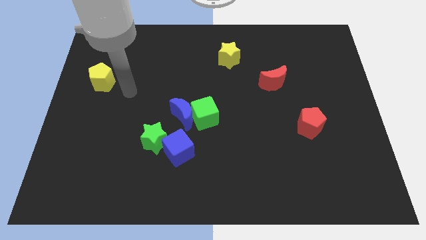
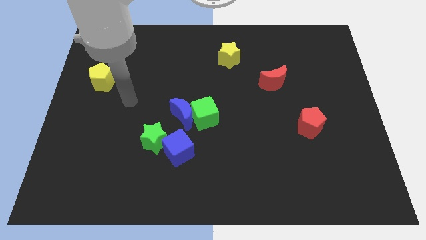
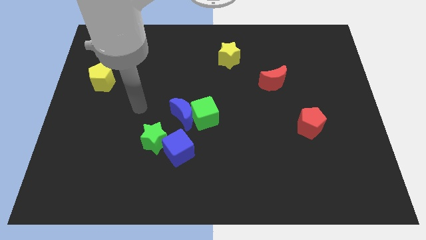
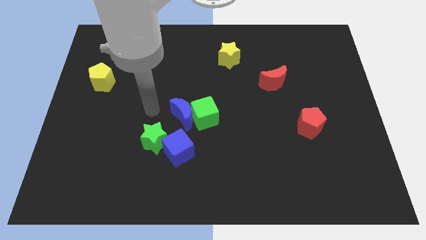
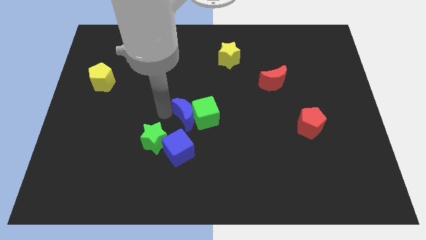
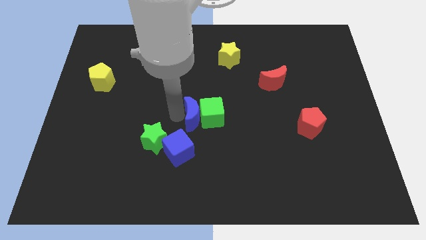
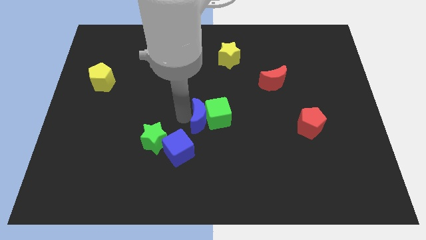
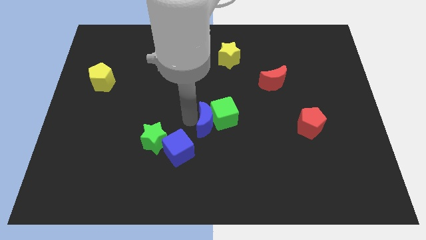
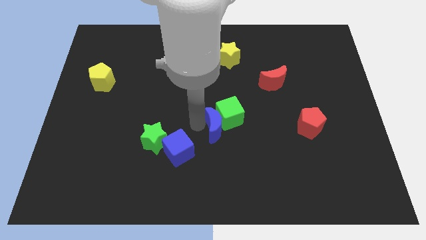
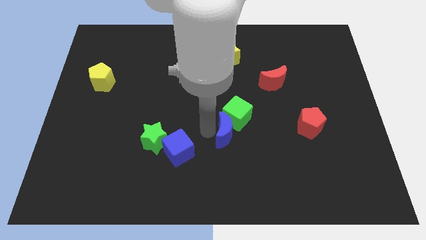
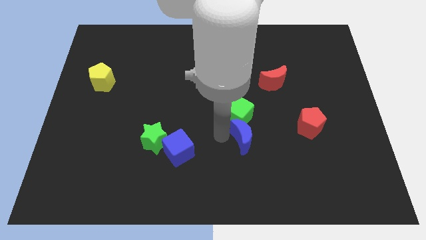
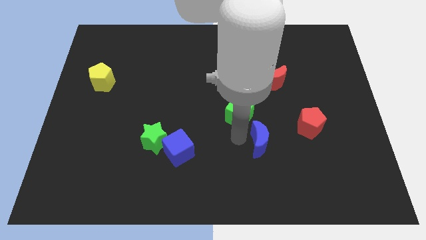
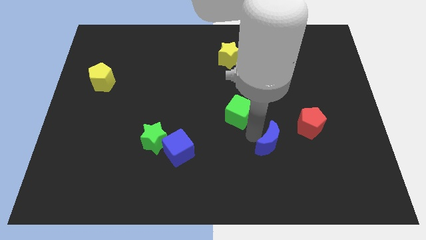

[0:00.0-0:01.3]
separate the green cube from the blue moon

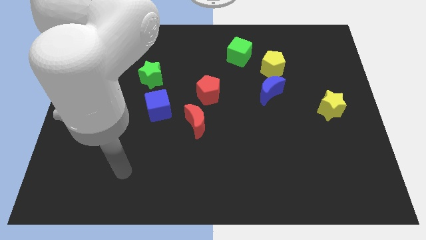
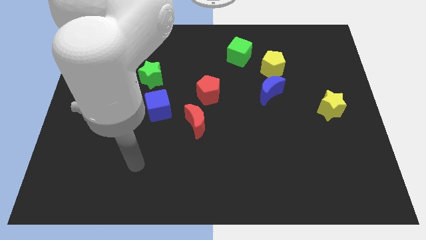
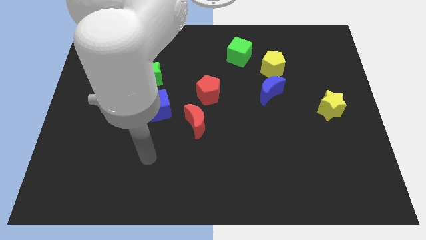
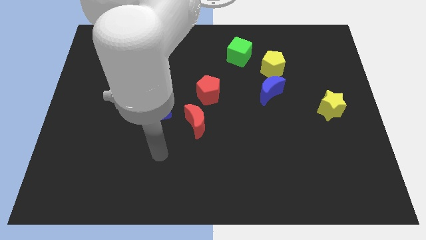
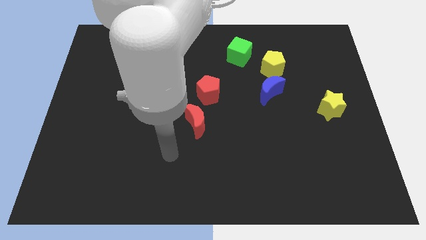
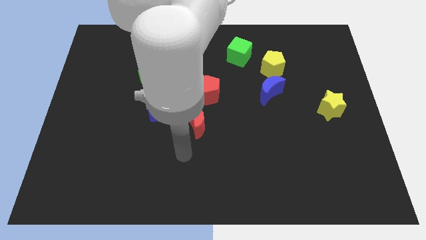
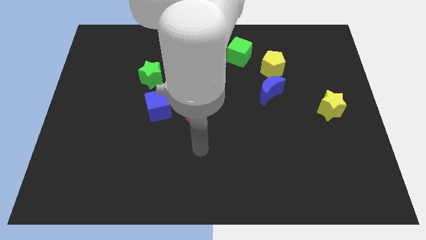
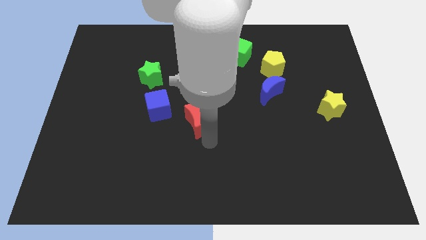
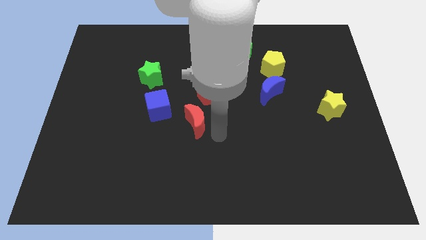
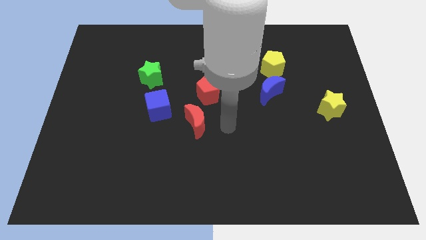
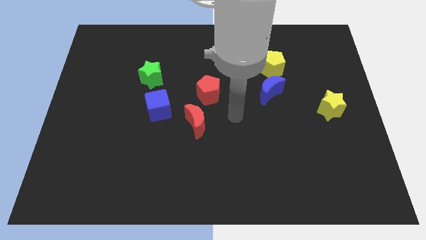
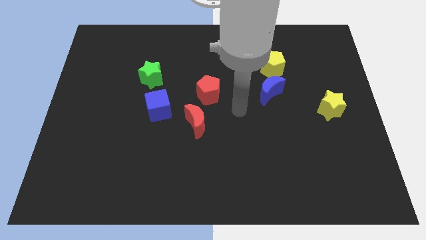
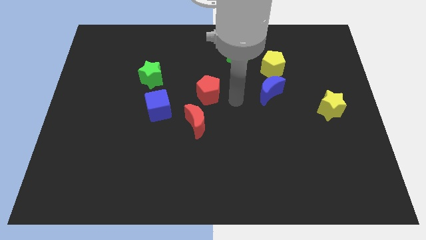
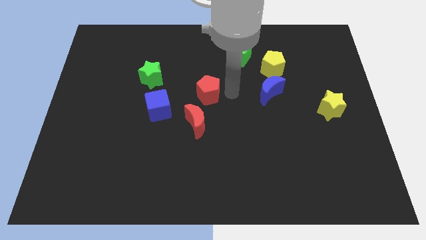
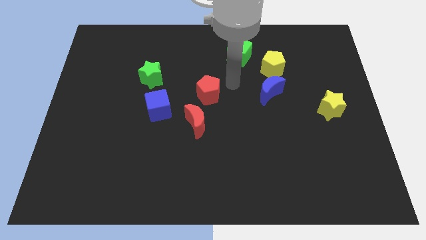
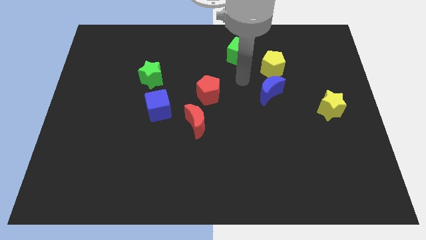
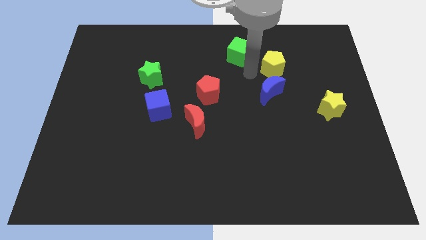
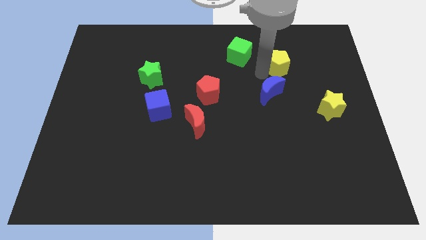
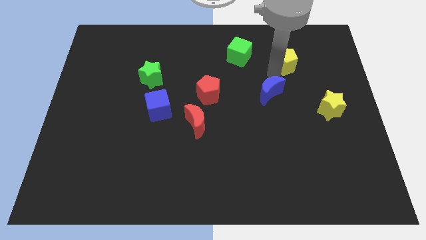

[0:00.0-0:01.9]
separate the blue moon from the yellow pentagon

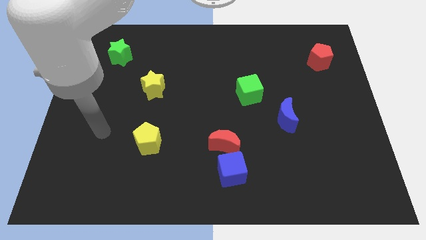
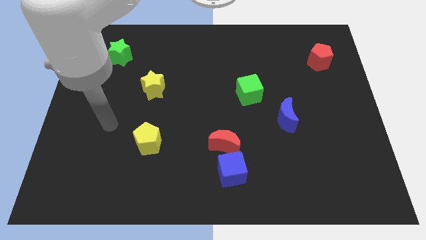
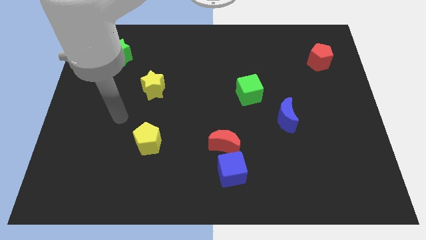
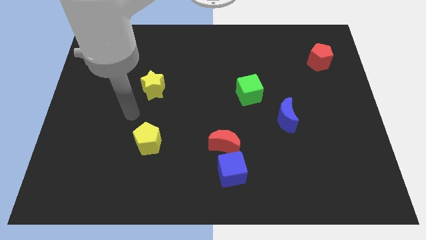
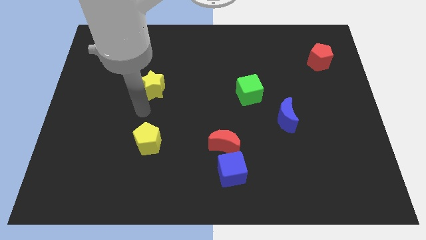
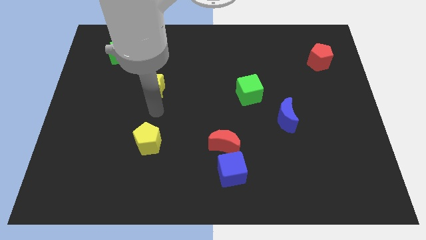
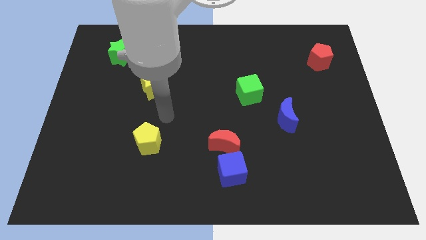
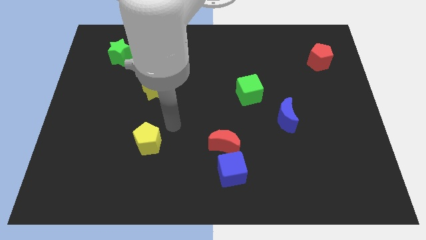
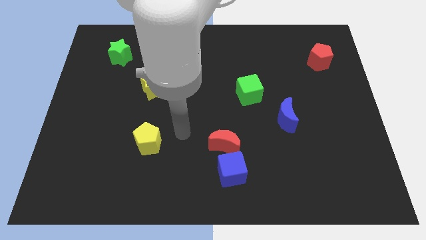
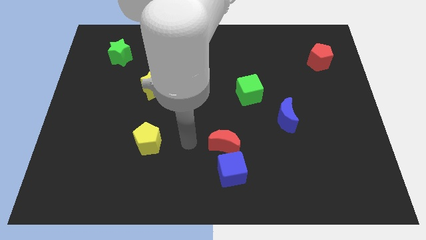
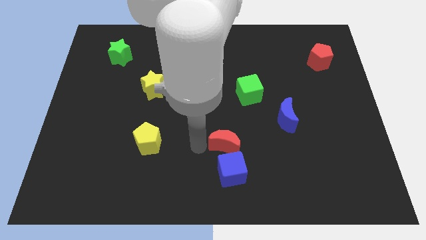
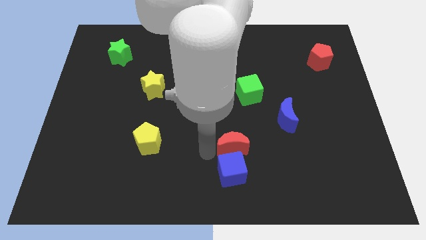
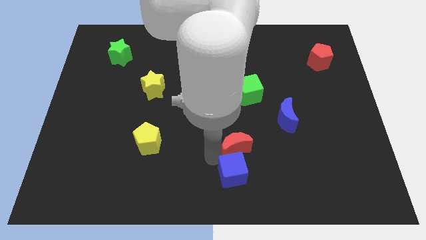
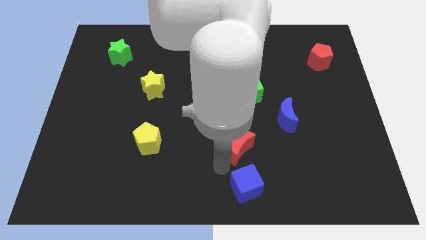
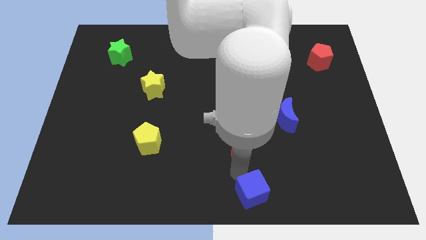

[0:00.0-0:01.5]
move the red moon away from the blue cube

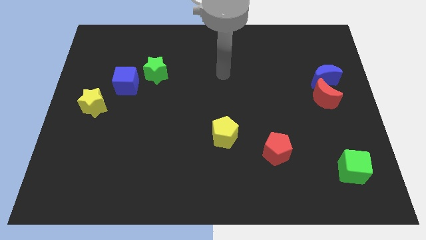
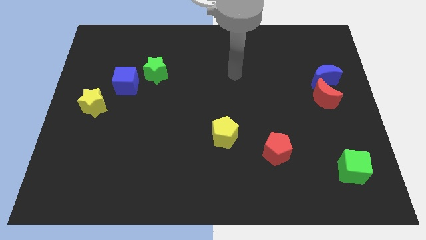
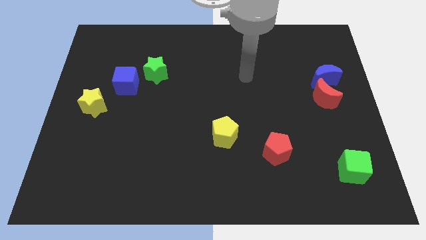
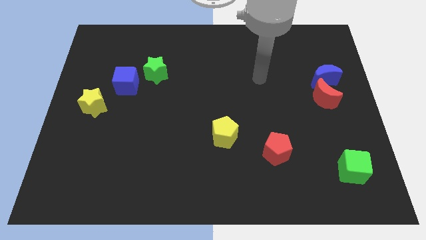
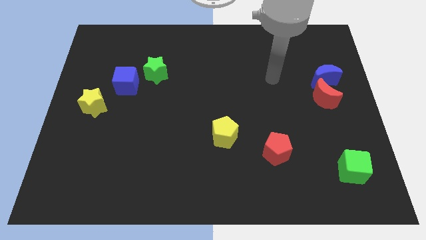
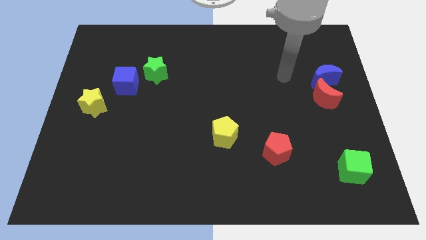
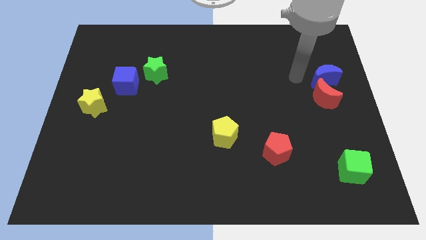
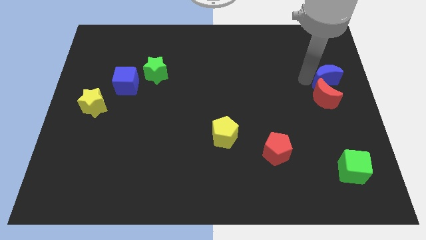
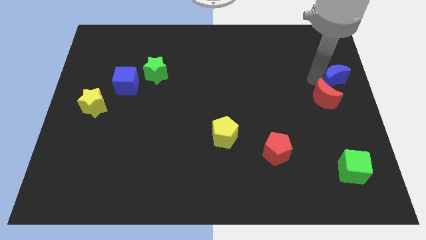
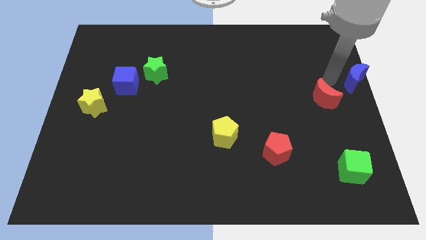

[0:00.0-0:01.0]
separate the red moon from the blue moon

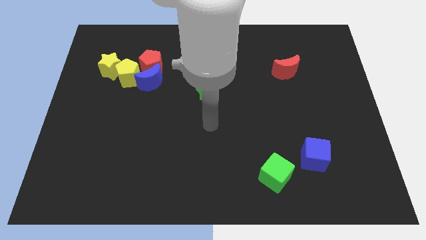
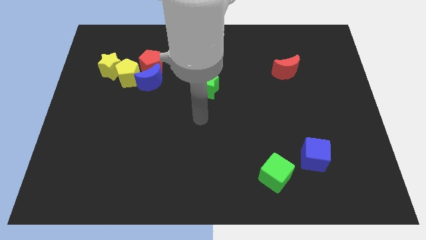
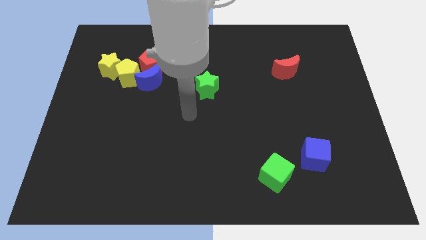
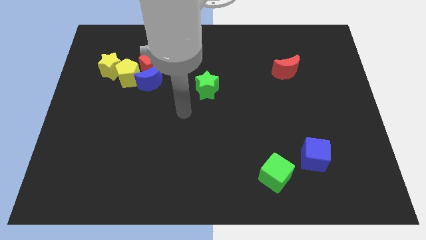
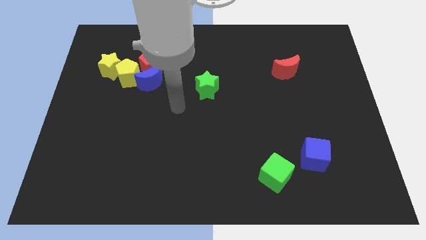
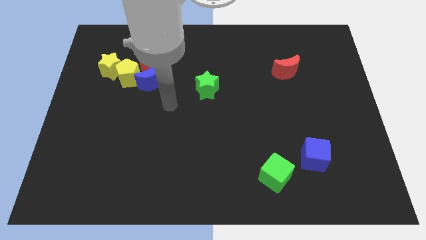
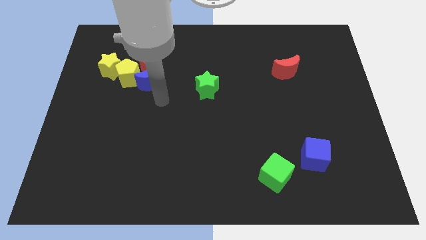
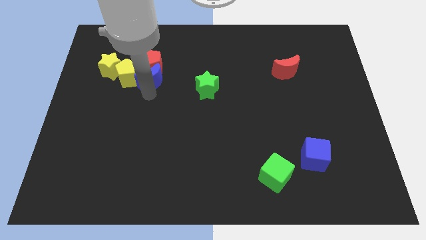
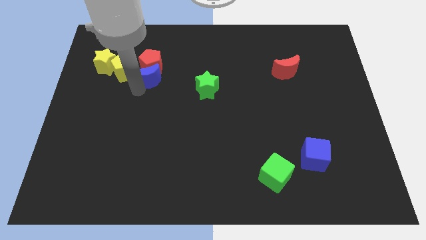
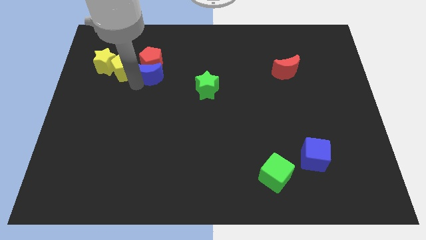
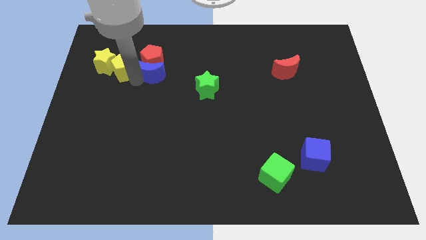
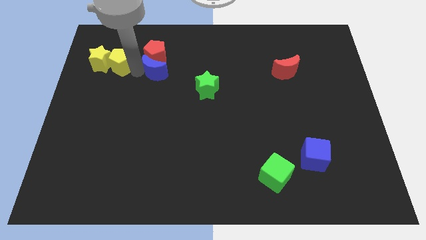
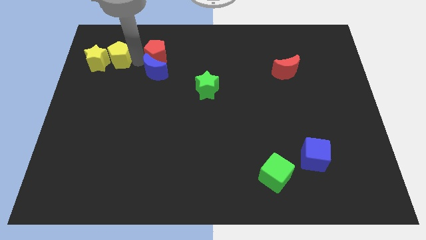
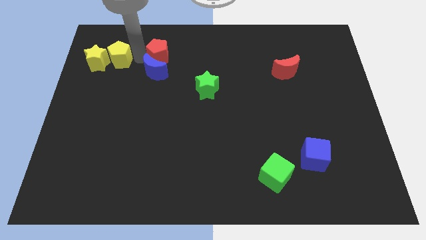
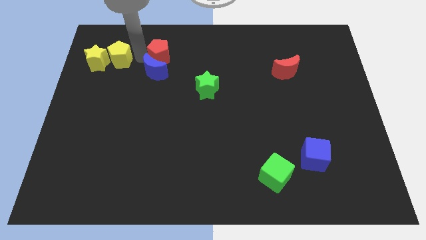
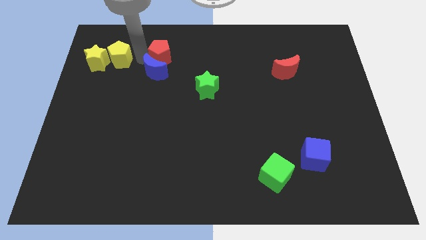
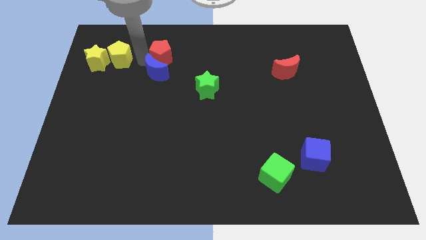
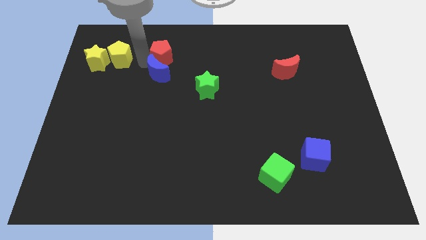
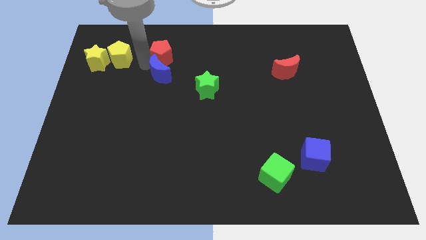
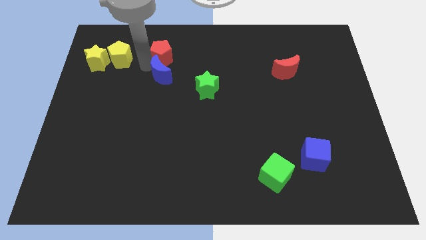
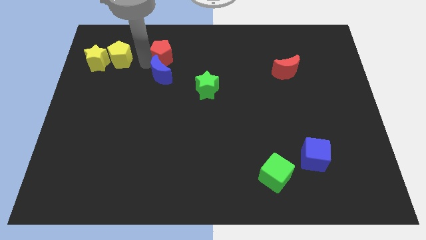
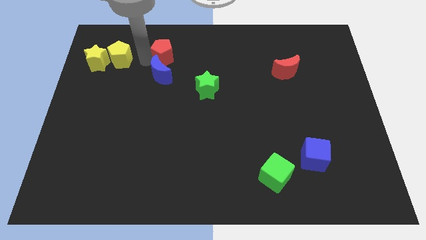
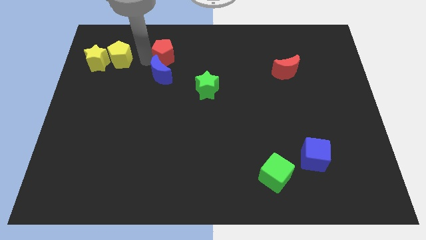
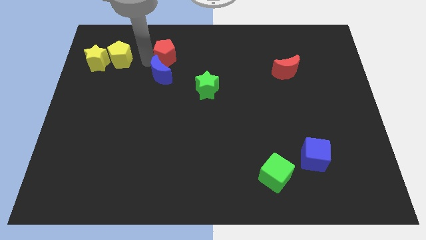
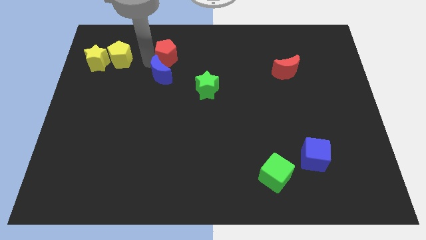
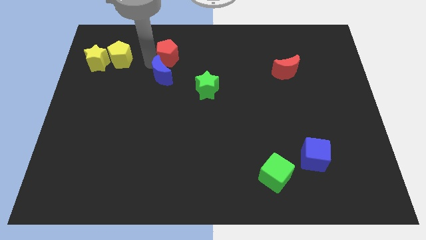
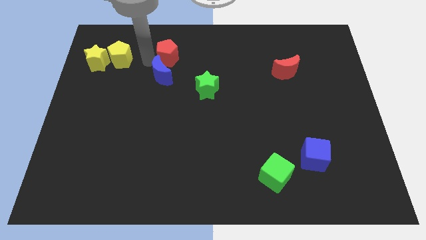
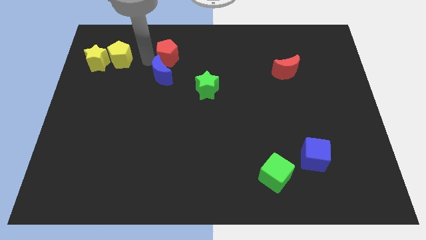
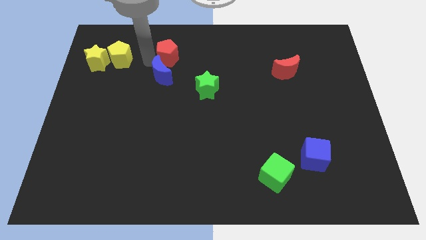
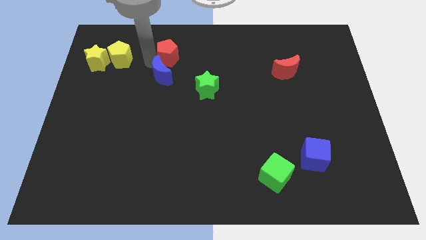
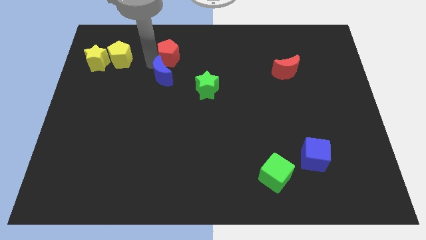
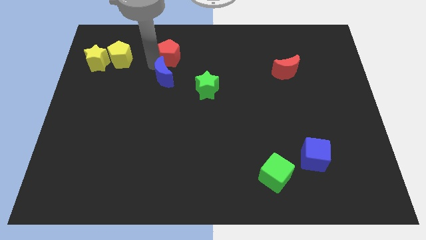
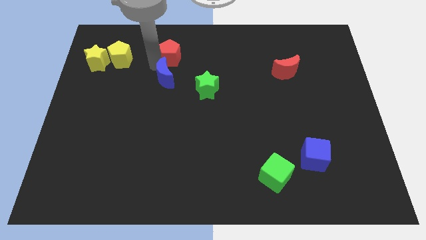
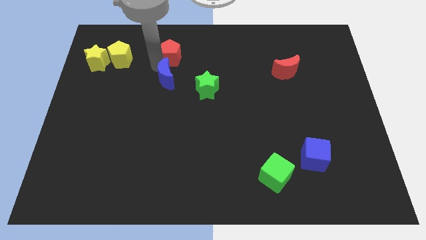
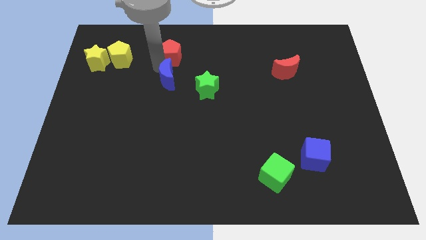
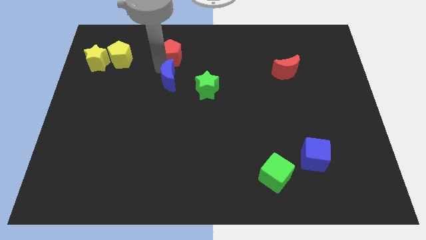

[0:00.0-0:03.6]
move the blue moon away from the red pentagon and yellow pentagon

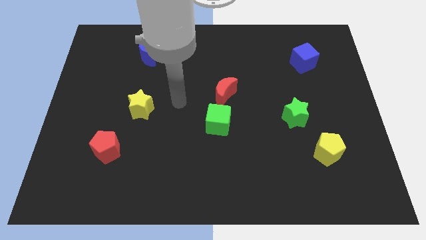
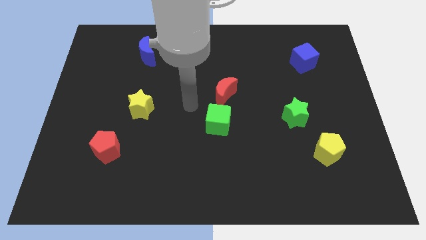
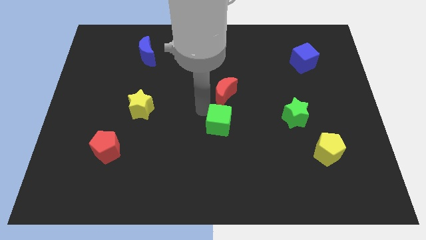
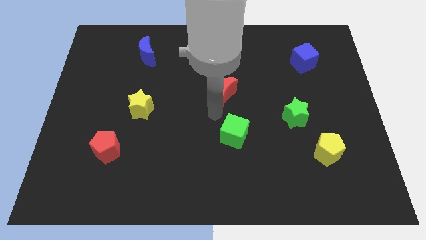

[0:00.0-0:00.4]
separate the red moon from the green cube
